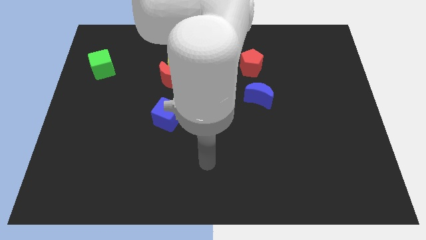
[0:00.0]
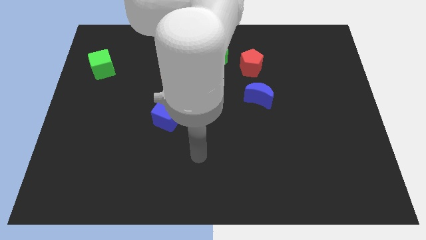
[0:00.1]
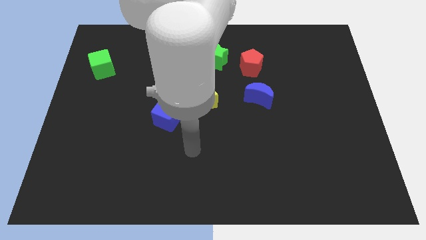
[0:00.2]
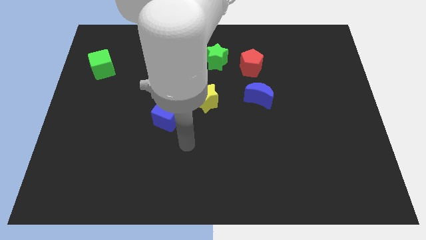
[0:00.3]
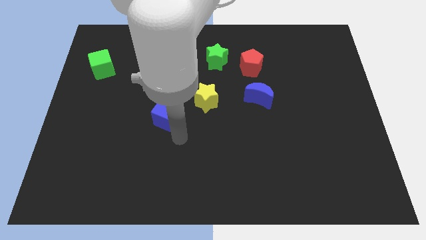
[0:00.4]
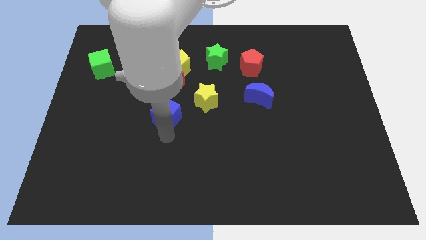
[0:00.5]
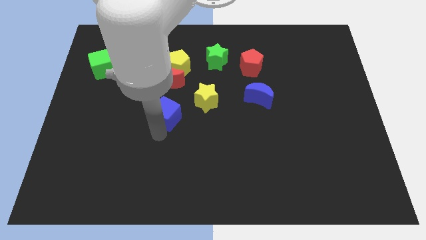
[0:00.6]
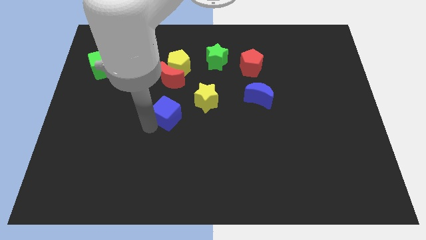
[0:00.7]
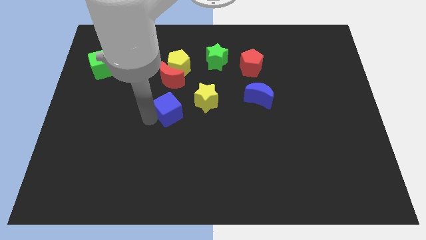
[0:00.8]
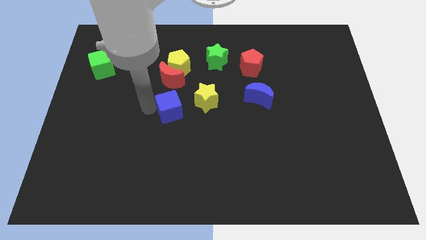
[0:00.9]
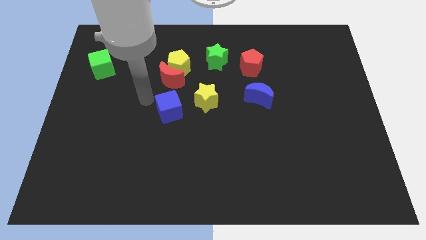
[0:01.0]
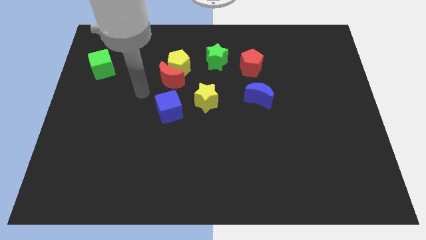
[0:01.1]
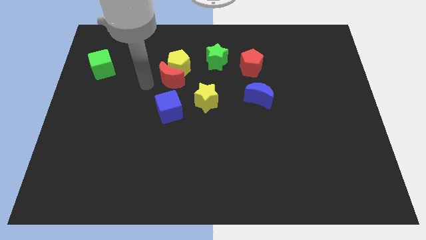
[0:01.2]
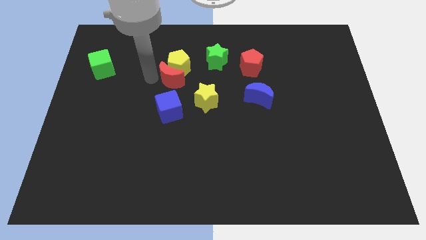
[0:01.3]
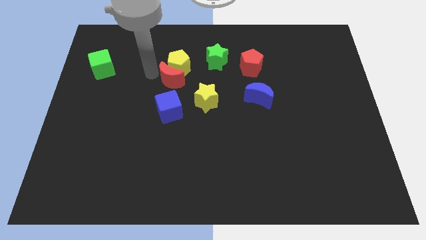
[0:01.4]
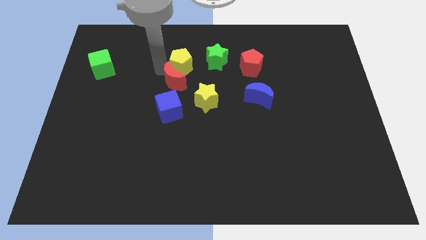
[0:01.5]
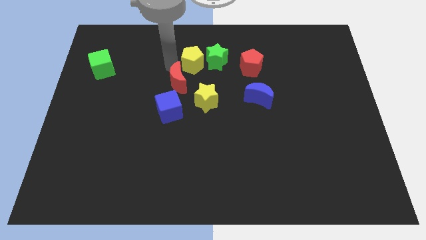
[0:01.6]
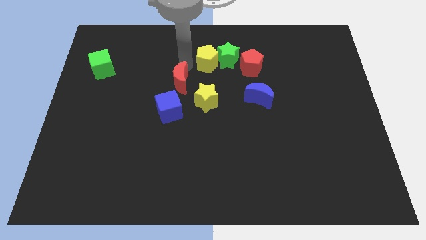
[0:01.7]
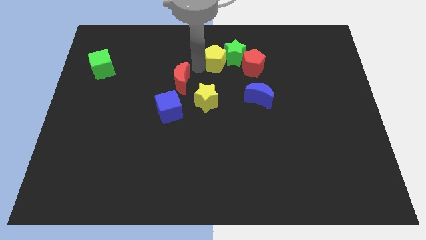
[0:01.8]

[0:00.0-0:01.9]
separate the red moon from the yellow pentagon

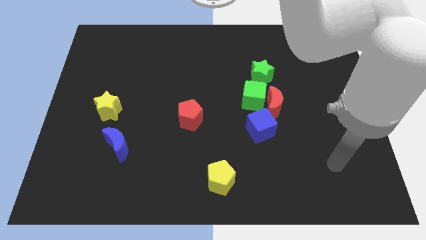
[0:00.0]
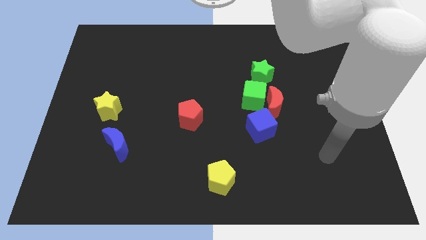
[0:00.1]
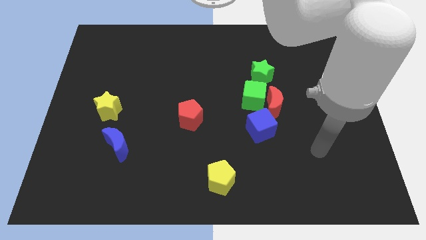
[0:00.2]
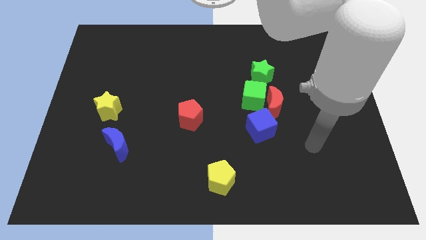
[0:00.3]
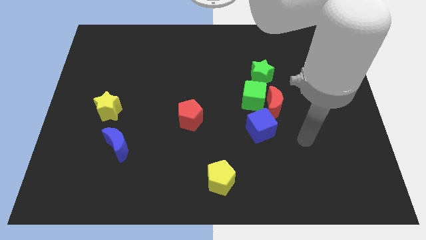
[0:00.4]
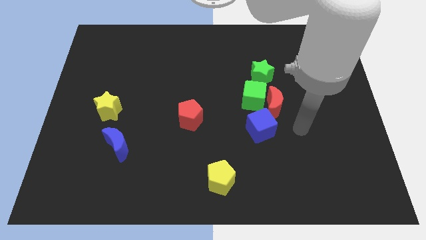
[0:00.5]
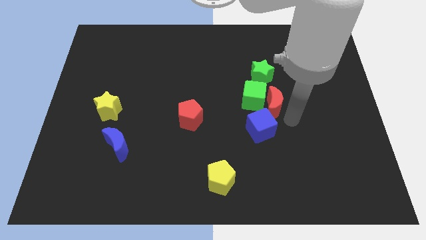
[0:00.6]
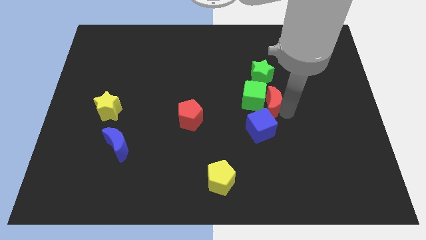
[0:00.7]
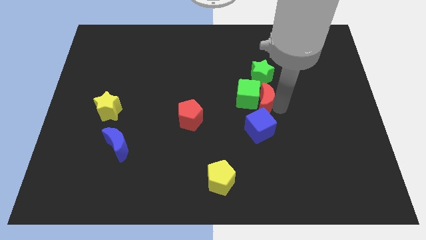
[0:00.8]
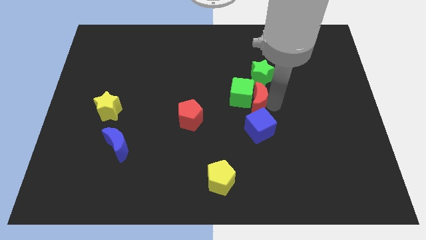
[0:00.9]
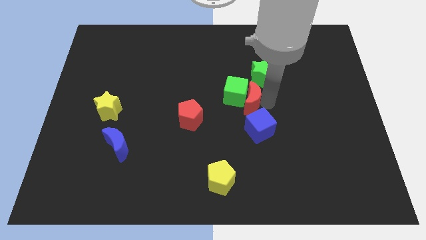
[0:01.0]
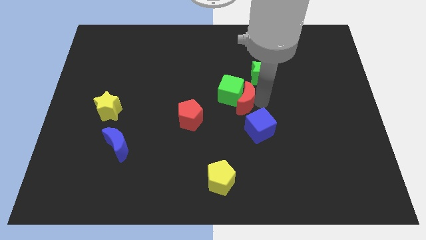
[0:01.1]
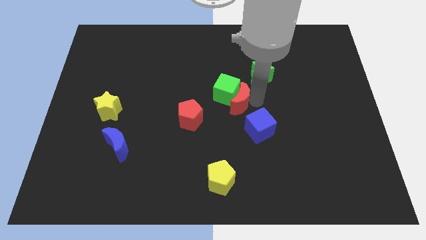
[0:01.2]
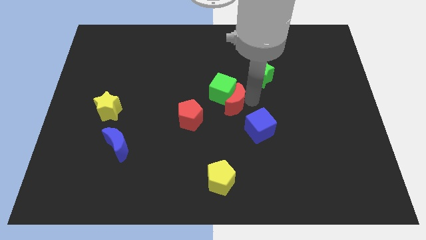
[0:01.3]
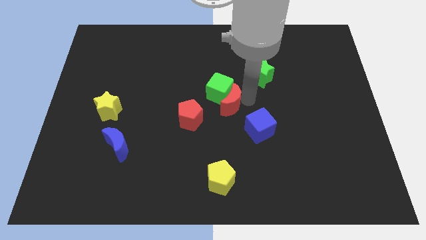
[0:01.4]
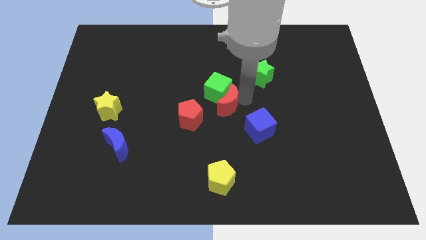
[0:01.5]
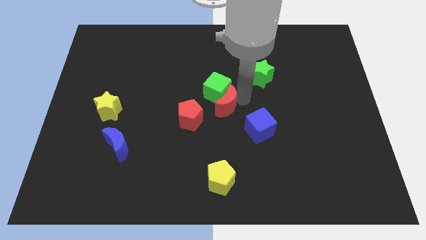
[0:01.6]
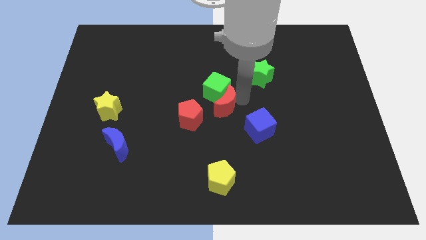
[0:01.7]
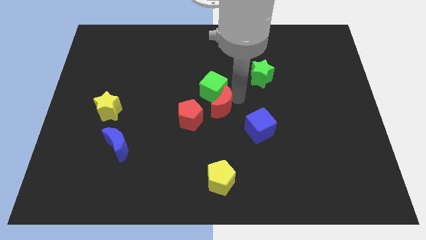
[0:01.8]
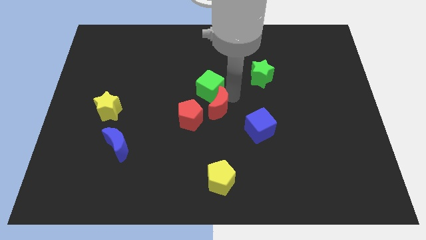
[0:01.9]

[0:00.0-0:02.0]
pull the green cube apart from the clump

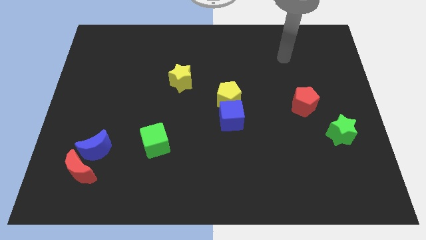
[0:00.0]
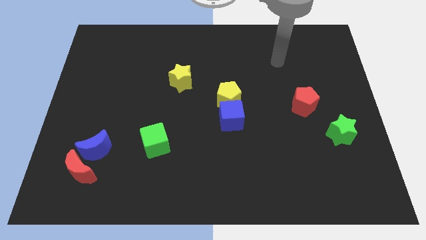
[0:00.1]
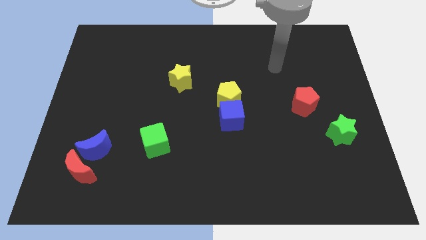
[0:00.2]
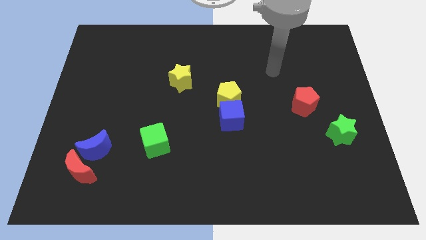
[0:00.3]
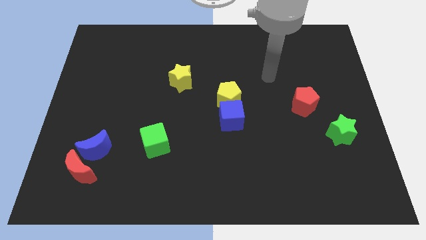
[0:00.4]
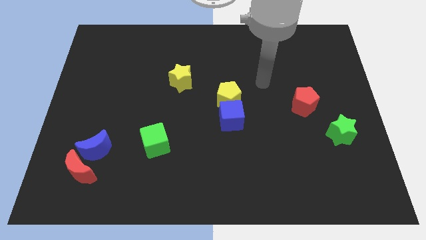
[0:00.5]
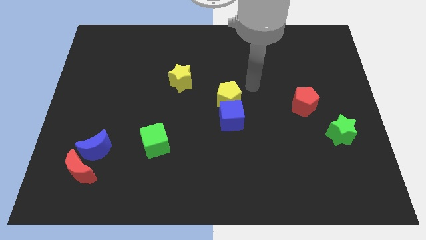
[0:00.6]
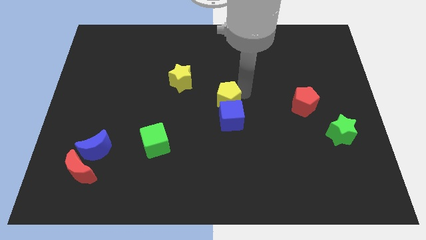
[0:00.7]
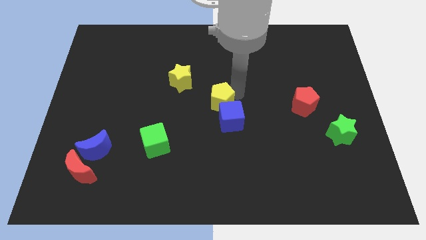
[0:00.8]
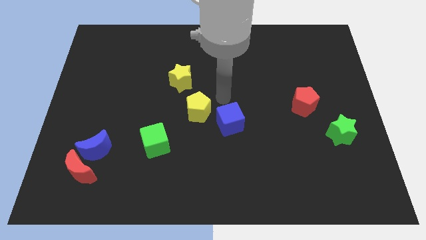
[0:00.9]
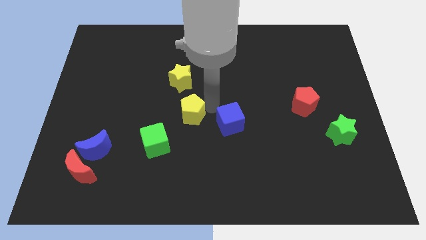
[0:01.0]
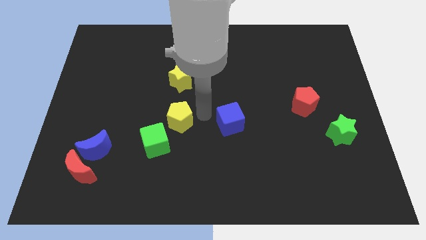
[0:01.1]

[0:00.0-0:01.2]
move the blue cube away from the yellow pentagon

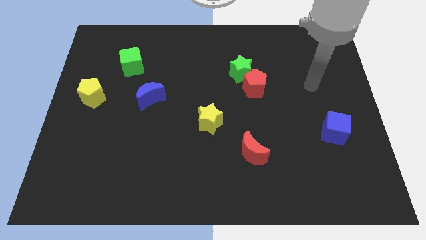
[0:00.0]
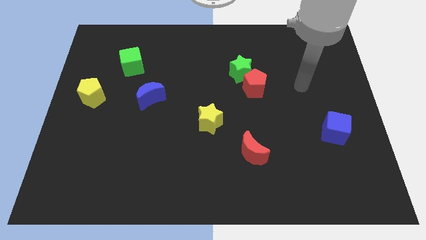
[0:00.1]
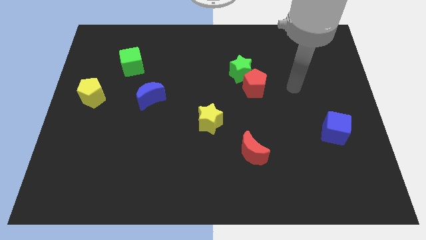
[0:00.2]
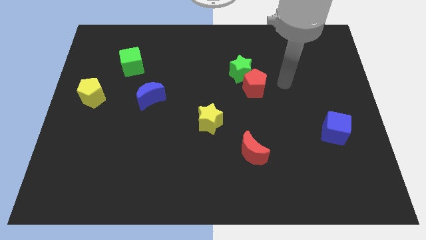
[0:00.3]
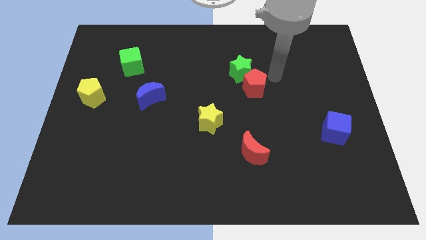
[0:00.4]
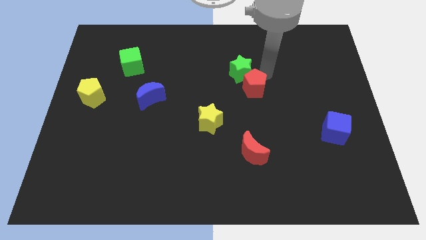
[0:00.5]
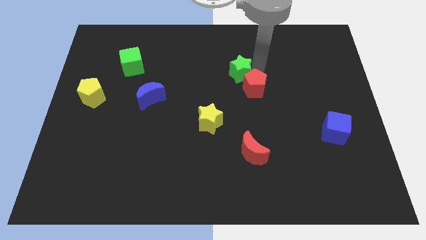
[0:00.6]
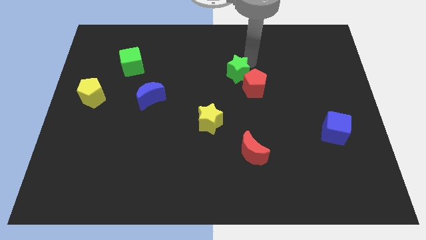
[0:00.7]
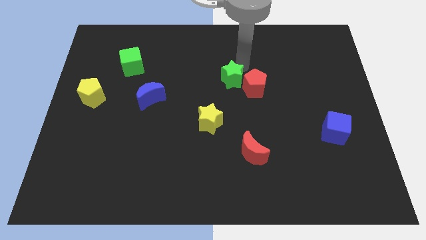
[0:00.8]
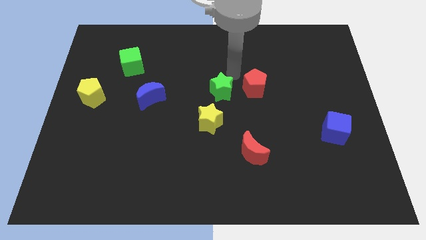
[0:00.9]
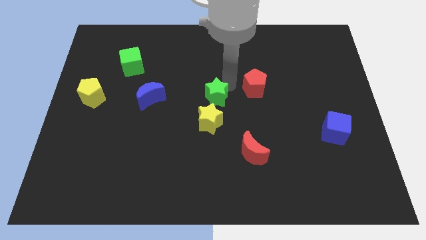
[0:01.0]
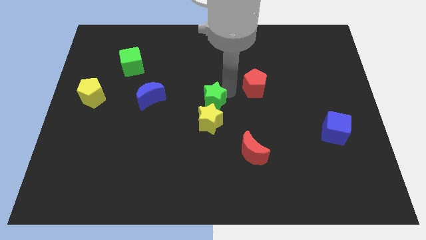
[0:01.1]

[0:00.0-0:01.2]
separate the red pentagon from the green star

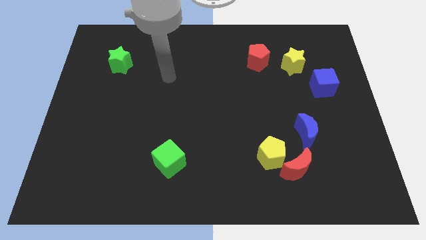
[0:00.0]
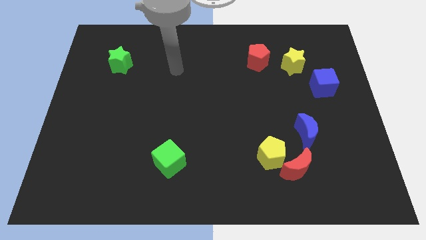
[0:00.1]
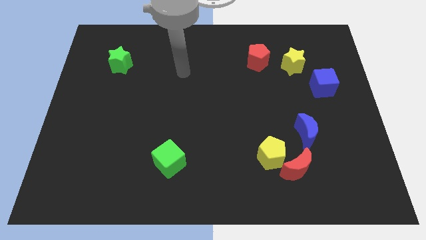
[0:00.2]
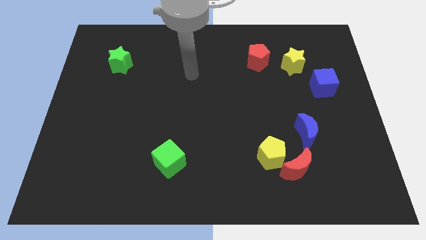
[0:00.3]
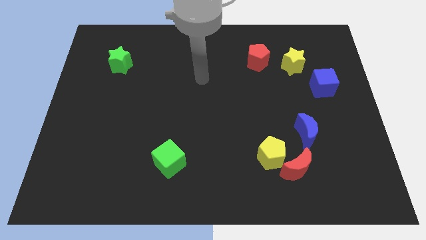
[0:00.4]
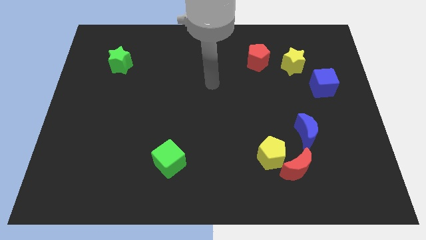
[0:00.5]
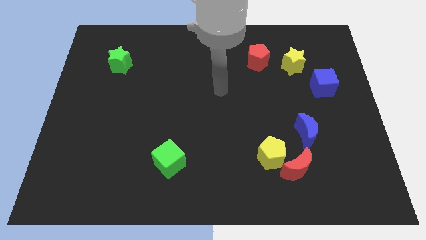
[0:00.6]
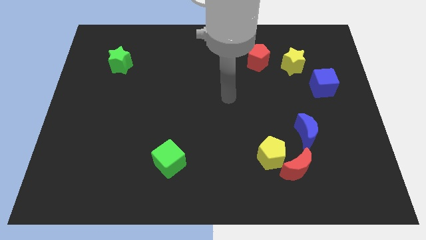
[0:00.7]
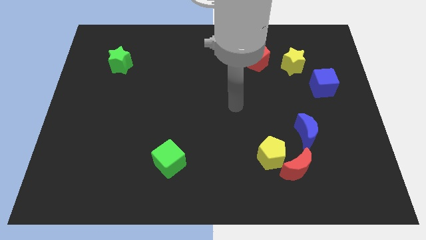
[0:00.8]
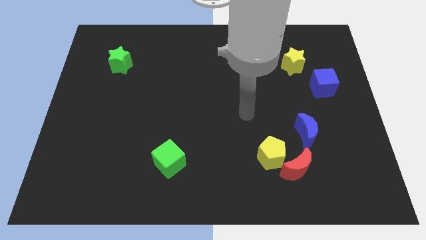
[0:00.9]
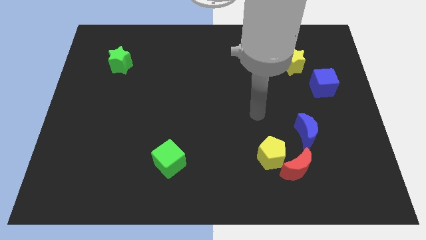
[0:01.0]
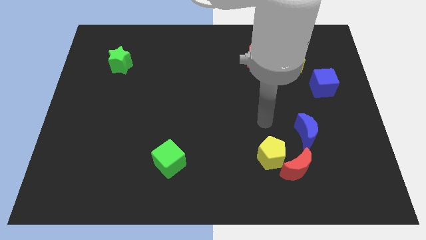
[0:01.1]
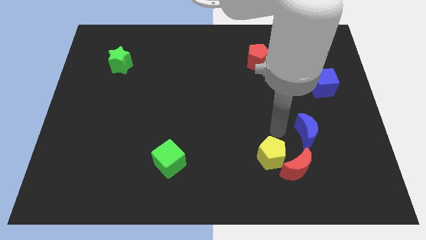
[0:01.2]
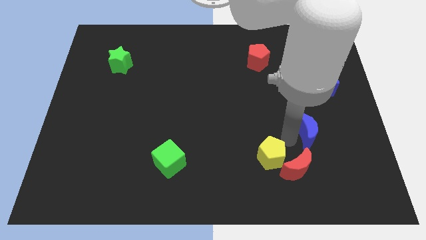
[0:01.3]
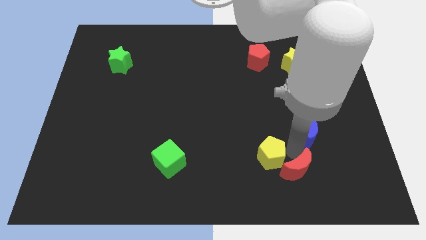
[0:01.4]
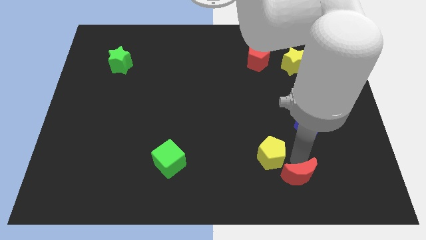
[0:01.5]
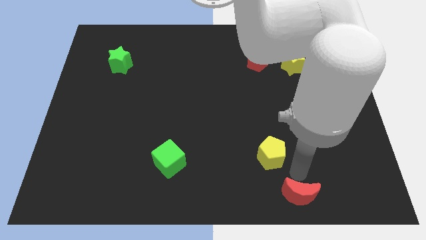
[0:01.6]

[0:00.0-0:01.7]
separate the yellow pentagon from the red moon

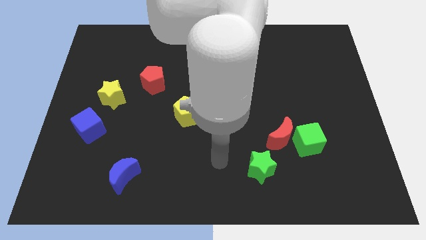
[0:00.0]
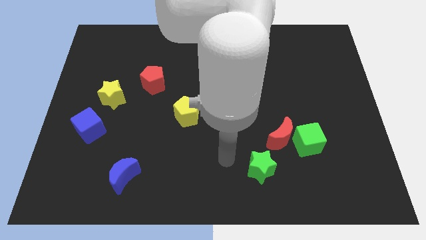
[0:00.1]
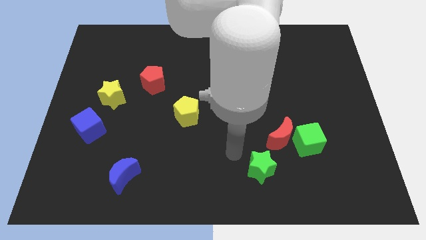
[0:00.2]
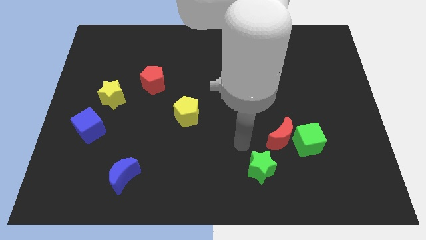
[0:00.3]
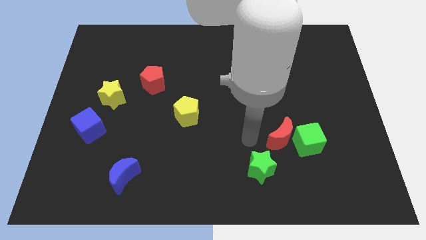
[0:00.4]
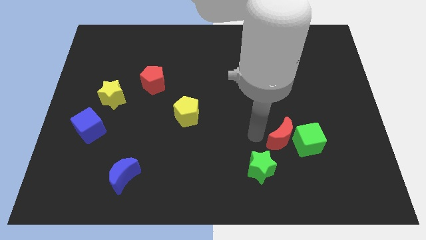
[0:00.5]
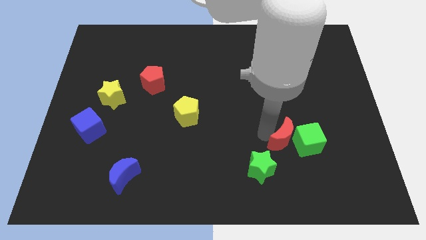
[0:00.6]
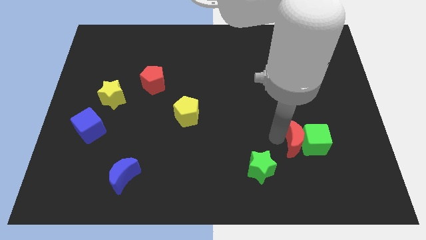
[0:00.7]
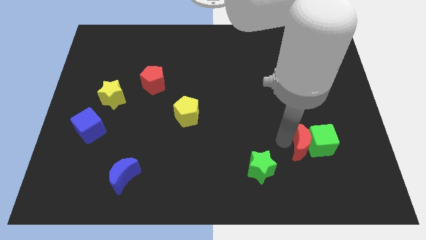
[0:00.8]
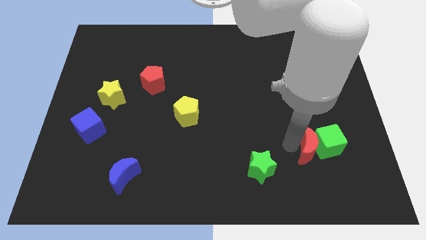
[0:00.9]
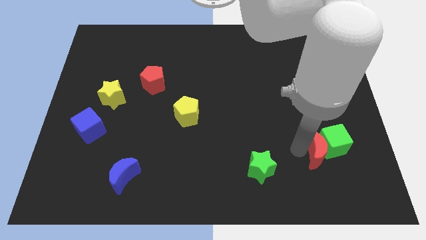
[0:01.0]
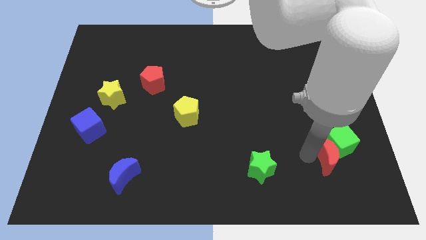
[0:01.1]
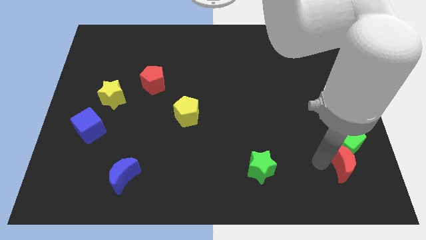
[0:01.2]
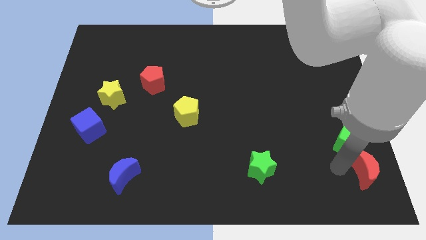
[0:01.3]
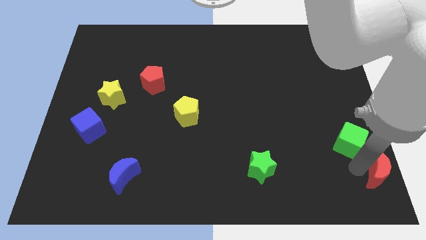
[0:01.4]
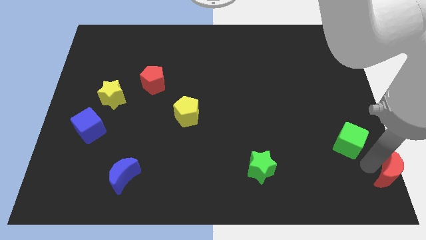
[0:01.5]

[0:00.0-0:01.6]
pull the green cube apart from the red moon
